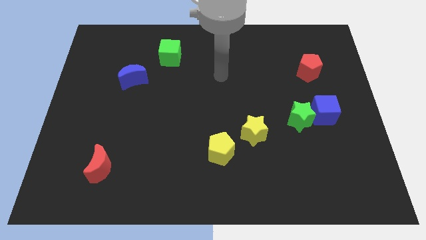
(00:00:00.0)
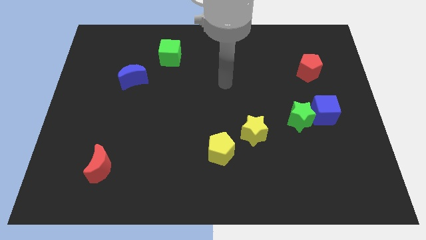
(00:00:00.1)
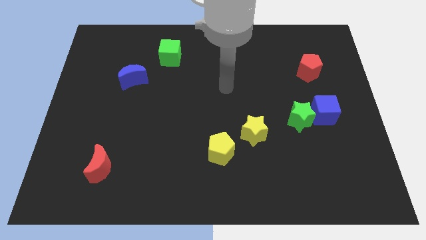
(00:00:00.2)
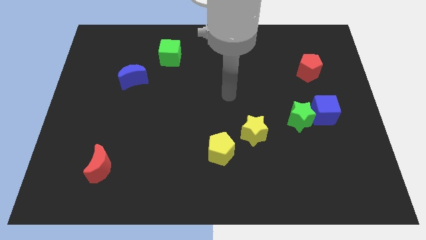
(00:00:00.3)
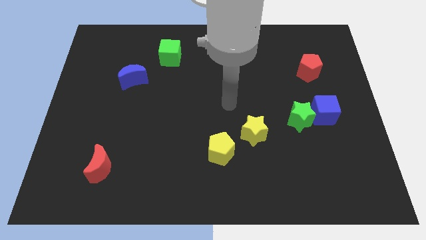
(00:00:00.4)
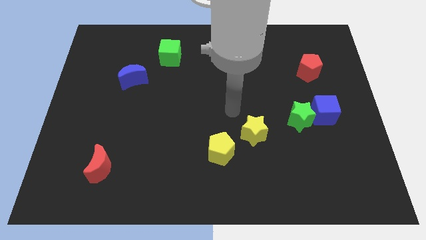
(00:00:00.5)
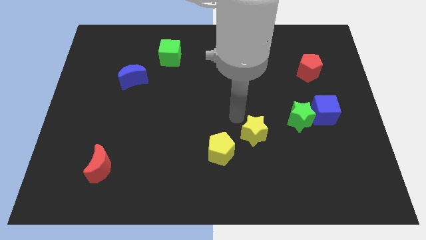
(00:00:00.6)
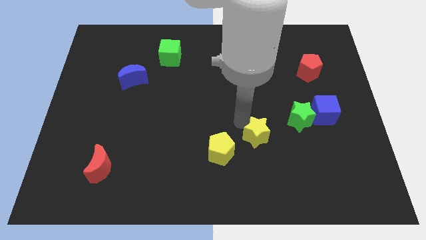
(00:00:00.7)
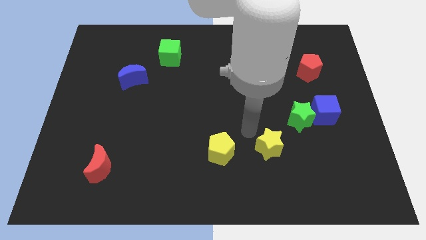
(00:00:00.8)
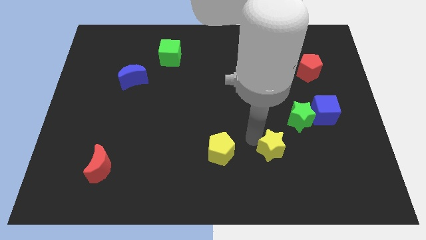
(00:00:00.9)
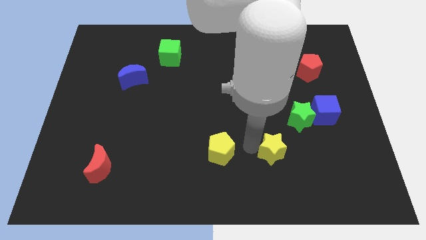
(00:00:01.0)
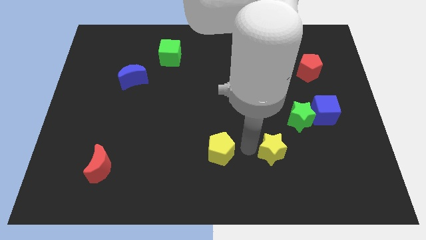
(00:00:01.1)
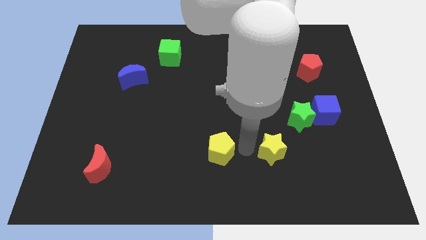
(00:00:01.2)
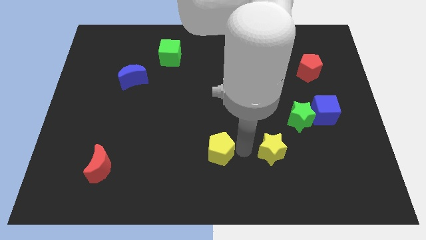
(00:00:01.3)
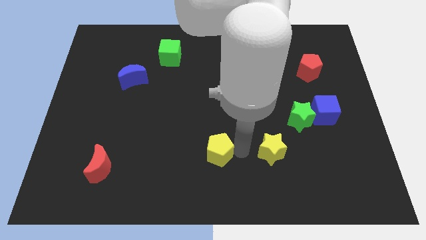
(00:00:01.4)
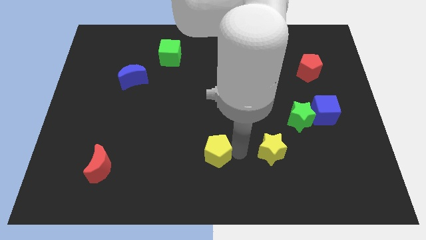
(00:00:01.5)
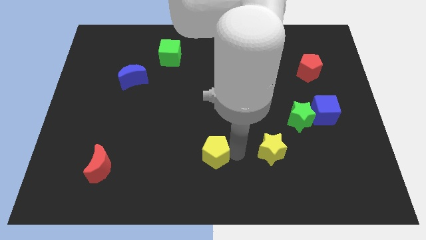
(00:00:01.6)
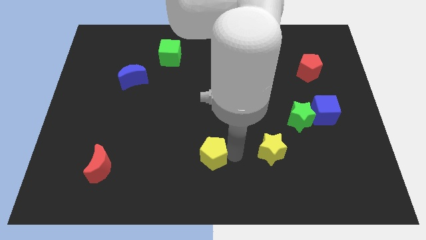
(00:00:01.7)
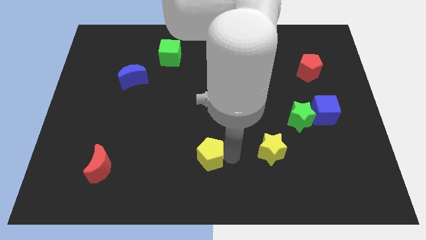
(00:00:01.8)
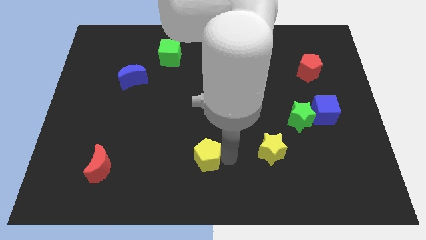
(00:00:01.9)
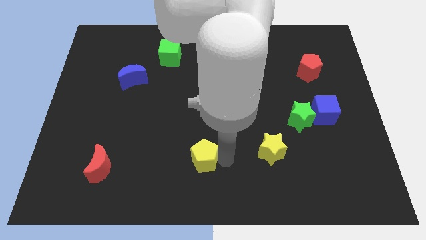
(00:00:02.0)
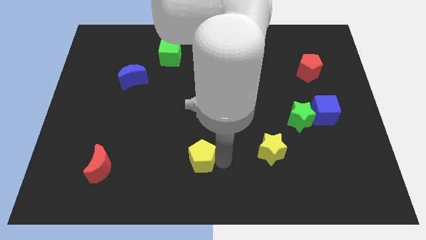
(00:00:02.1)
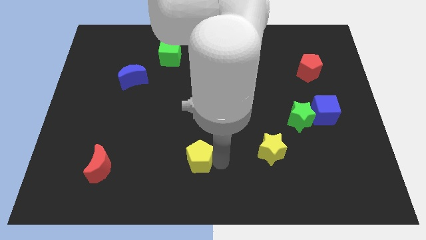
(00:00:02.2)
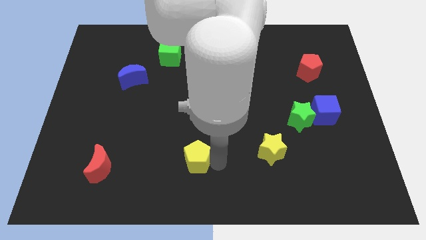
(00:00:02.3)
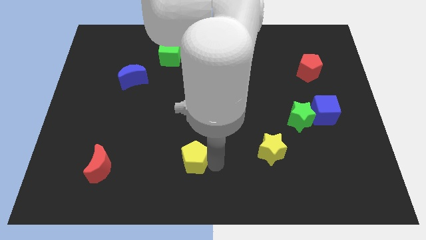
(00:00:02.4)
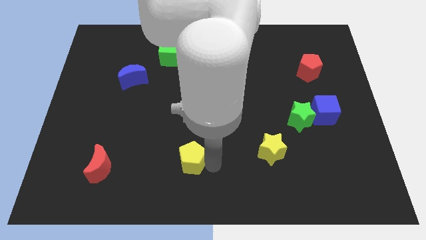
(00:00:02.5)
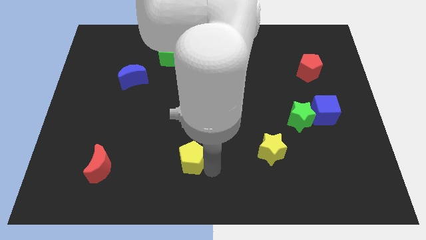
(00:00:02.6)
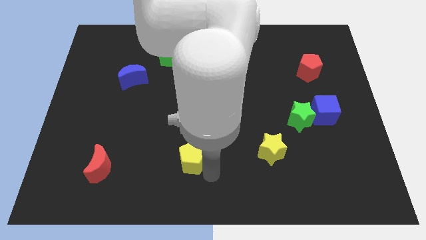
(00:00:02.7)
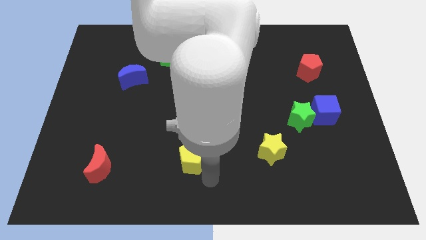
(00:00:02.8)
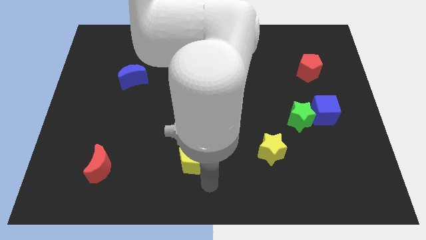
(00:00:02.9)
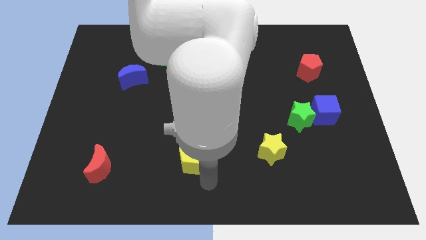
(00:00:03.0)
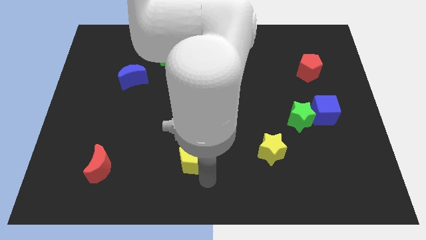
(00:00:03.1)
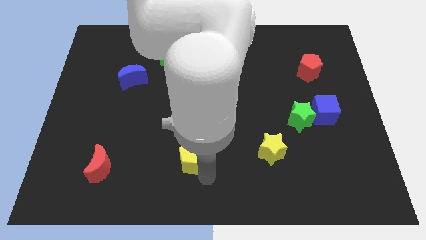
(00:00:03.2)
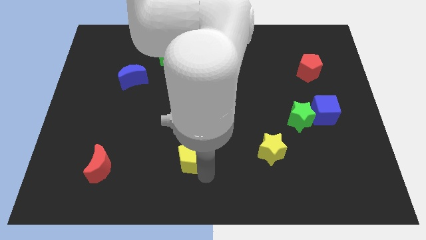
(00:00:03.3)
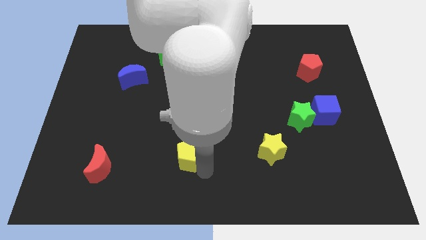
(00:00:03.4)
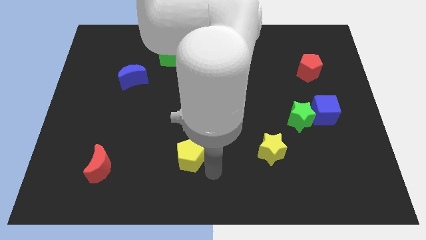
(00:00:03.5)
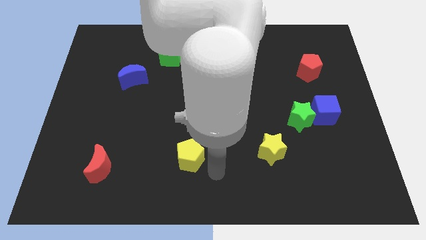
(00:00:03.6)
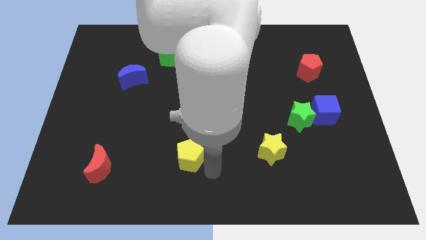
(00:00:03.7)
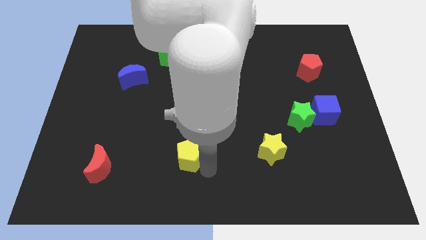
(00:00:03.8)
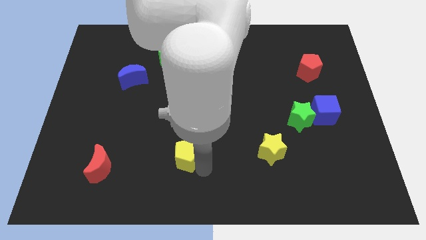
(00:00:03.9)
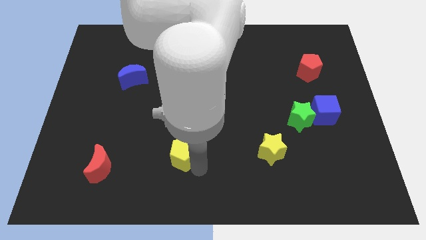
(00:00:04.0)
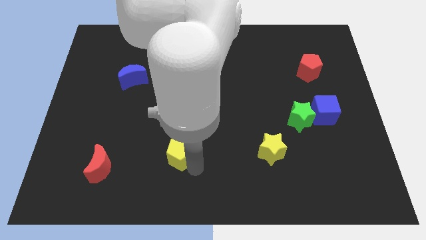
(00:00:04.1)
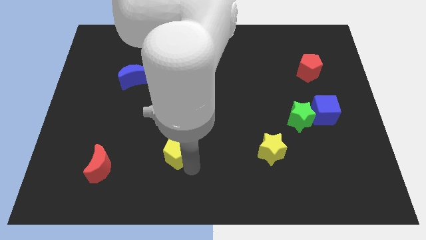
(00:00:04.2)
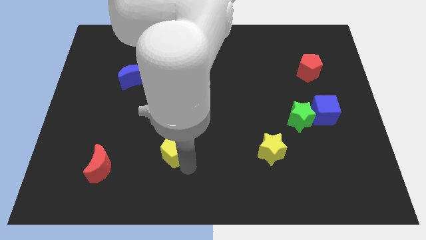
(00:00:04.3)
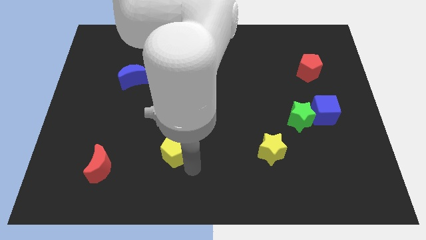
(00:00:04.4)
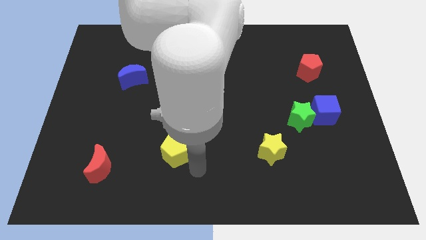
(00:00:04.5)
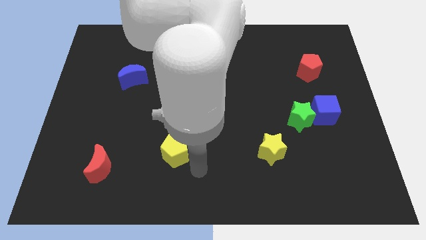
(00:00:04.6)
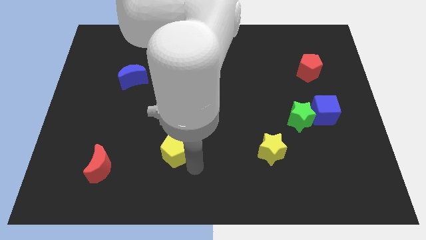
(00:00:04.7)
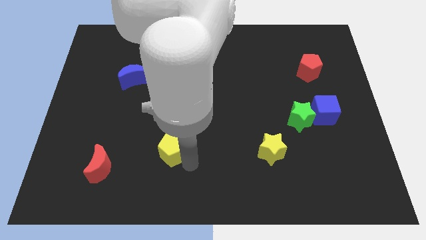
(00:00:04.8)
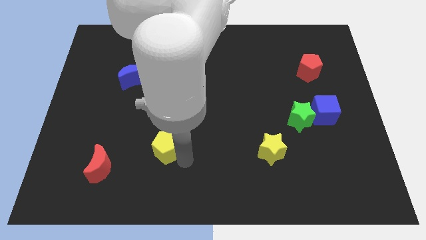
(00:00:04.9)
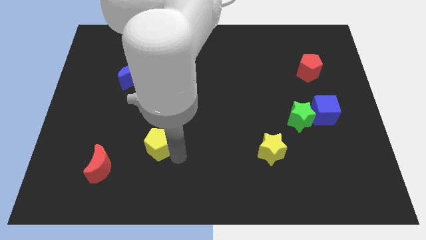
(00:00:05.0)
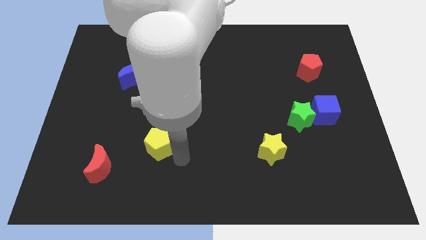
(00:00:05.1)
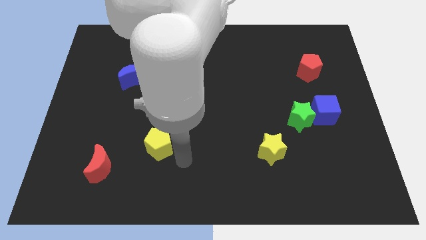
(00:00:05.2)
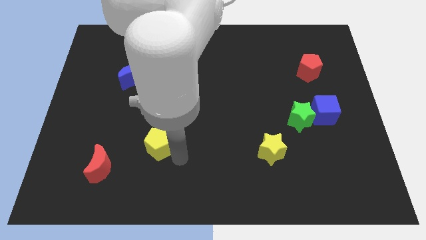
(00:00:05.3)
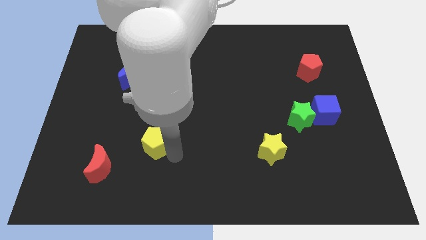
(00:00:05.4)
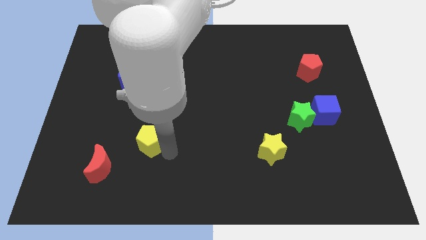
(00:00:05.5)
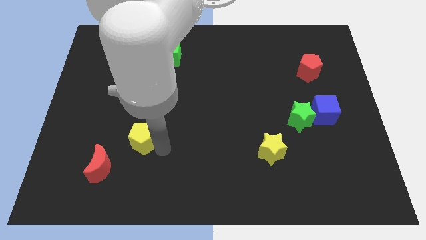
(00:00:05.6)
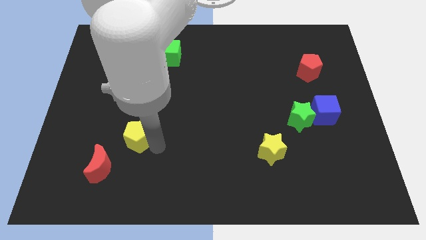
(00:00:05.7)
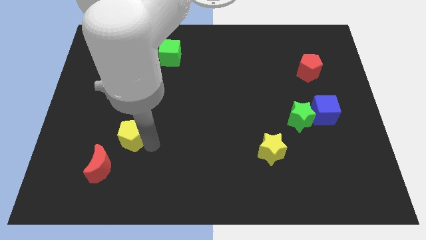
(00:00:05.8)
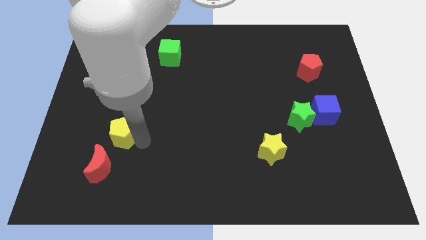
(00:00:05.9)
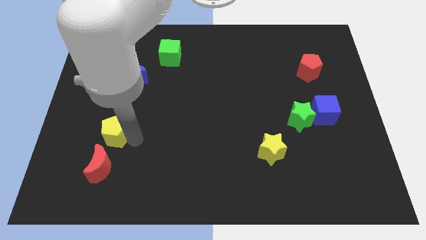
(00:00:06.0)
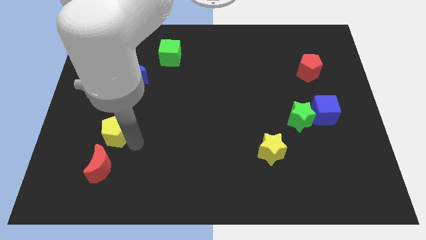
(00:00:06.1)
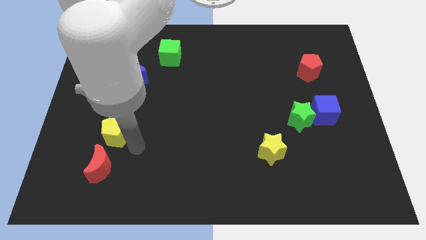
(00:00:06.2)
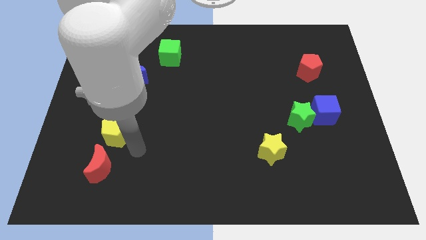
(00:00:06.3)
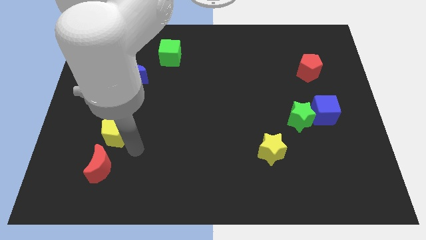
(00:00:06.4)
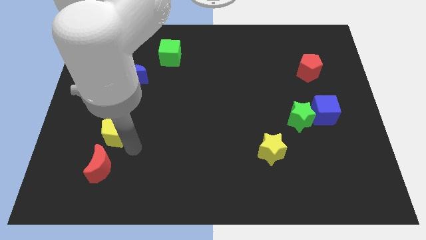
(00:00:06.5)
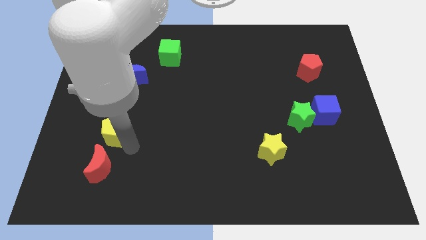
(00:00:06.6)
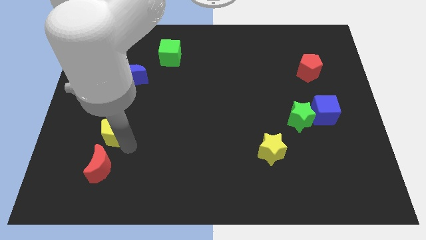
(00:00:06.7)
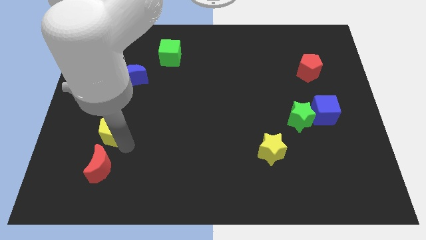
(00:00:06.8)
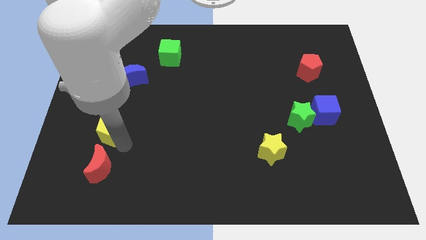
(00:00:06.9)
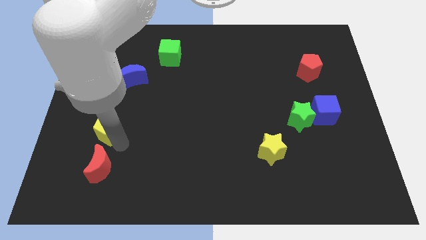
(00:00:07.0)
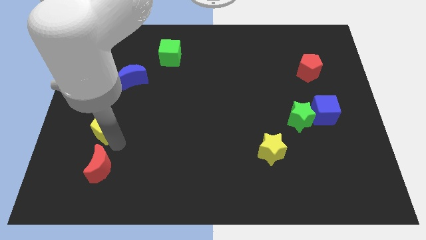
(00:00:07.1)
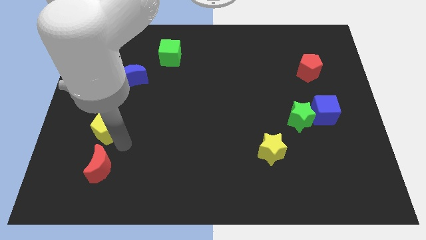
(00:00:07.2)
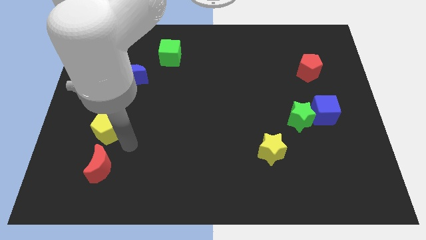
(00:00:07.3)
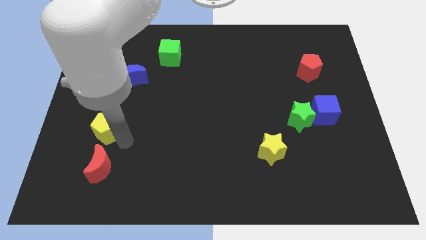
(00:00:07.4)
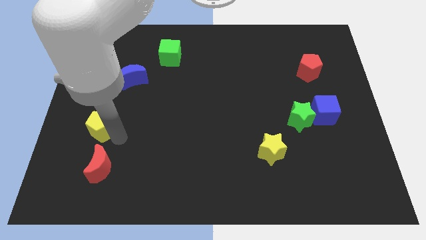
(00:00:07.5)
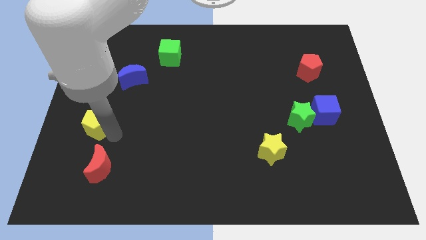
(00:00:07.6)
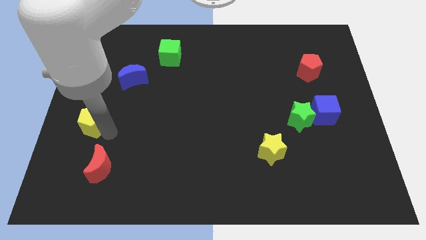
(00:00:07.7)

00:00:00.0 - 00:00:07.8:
put the yellow pentagon to the left side of the board
